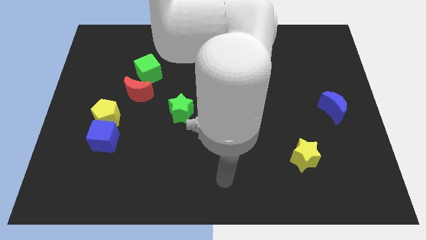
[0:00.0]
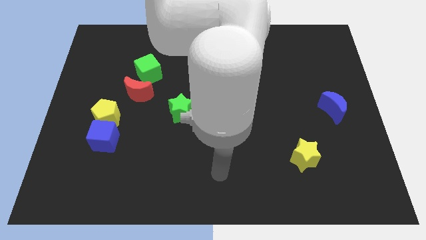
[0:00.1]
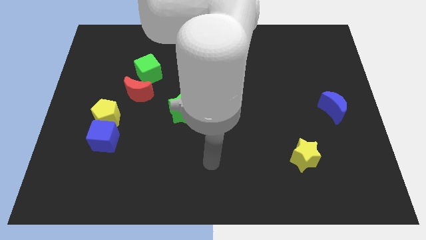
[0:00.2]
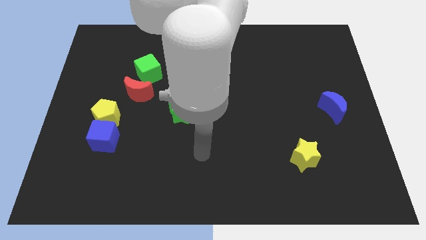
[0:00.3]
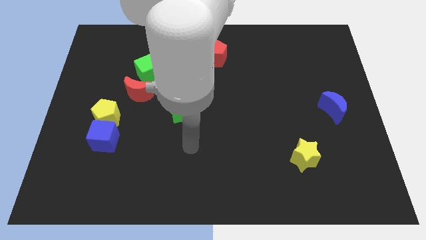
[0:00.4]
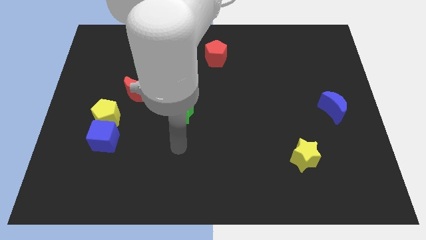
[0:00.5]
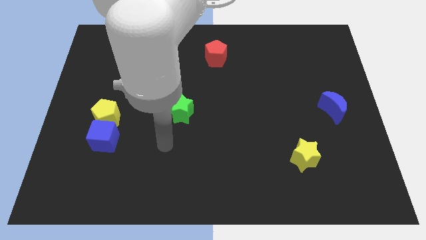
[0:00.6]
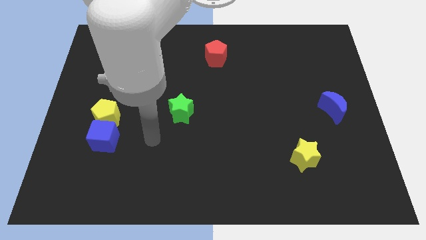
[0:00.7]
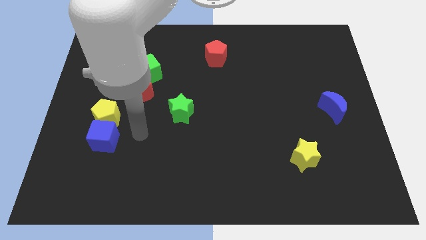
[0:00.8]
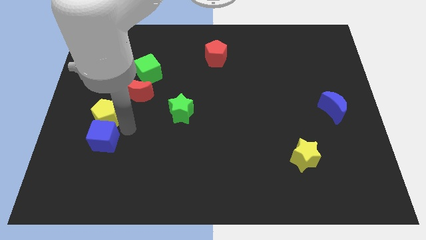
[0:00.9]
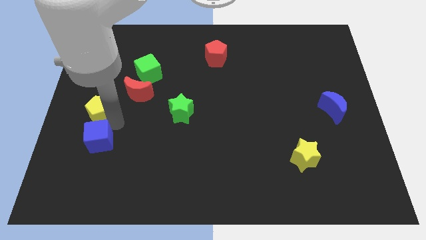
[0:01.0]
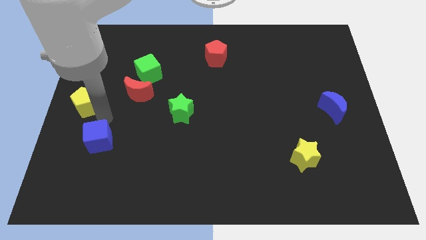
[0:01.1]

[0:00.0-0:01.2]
move the blue cube away from the yellow pentagon

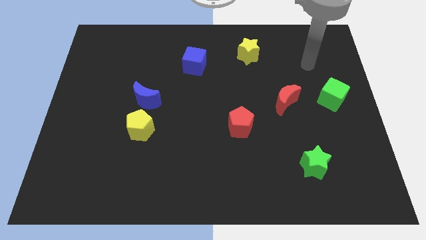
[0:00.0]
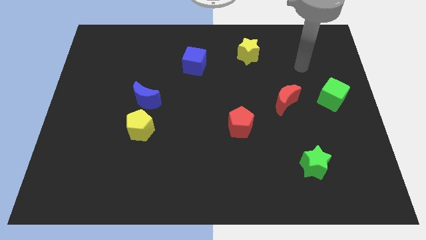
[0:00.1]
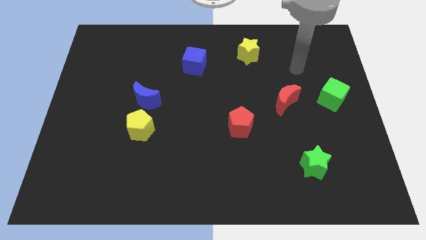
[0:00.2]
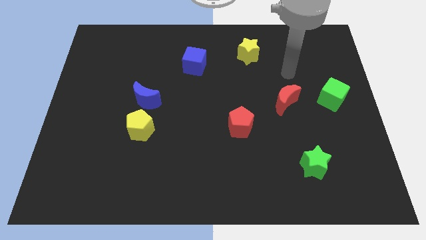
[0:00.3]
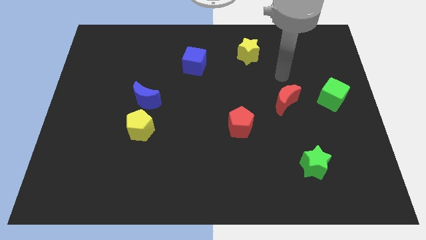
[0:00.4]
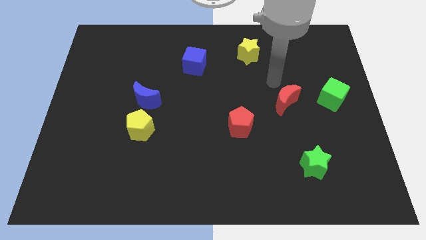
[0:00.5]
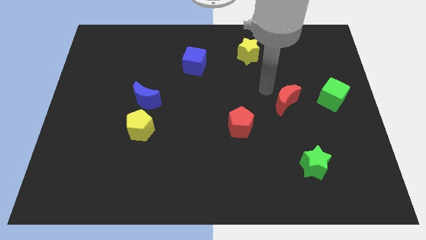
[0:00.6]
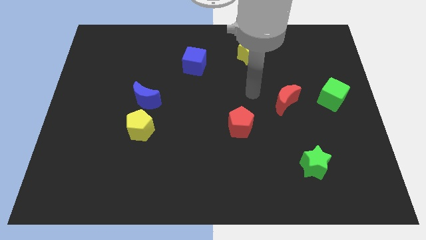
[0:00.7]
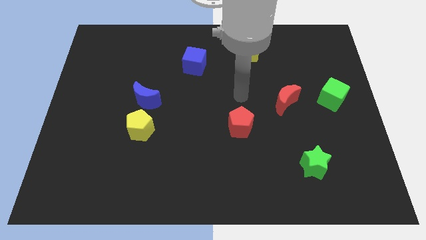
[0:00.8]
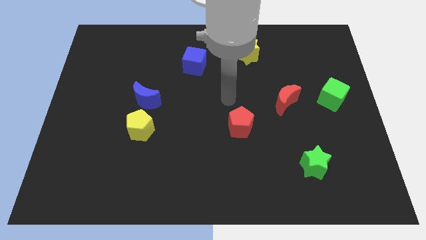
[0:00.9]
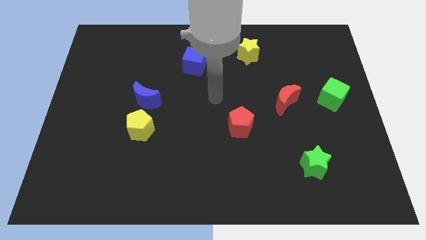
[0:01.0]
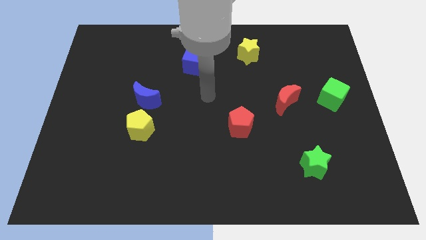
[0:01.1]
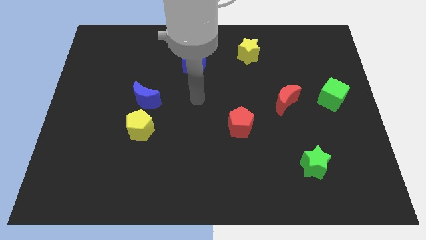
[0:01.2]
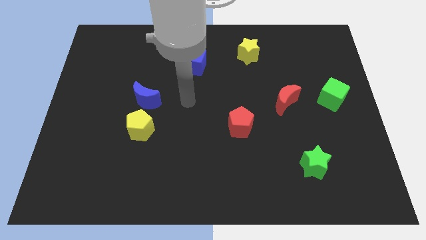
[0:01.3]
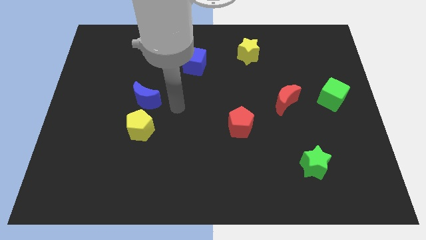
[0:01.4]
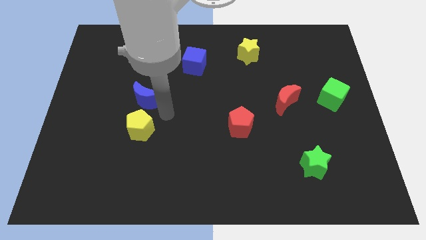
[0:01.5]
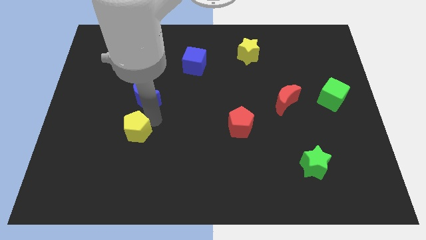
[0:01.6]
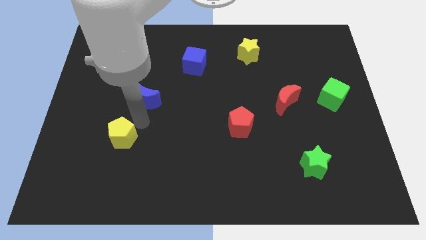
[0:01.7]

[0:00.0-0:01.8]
pull the blue moon apart from the yellow pentagon

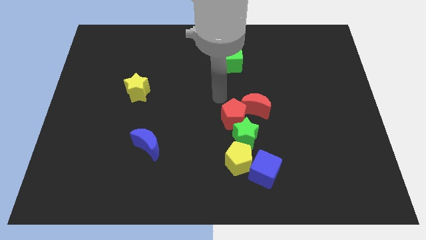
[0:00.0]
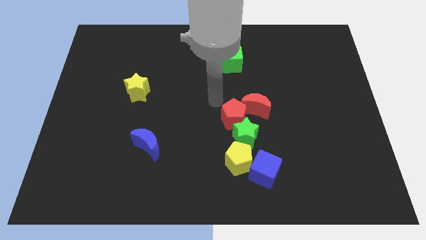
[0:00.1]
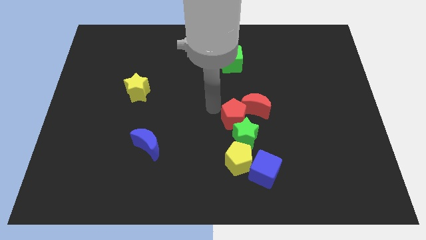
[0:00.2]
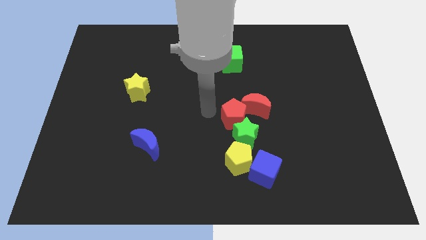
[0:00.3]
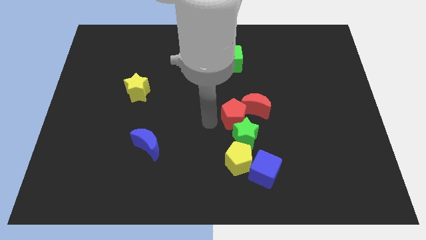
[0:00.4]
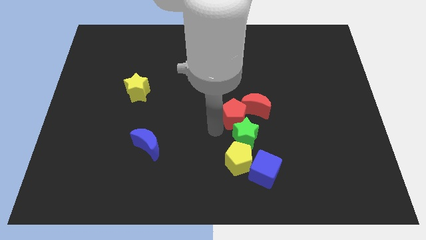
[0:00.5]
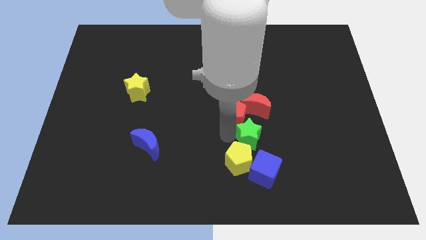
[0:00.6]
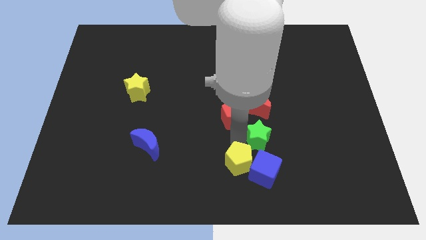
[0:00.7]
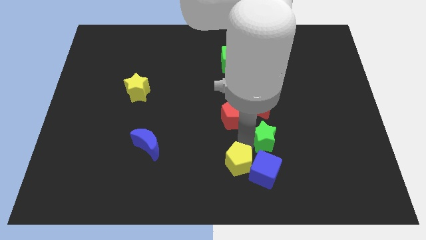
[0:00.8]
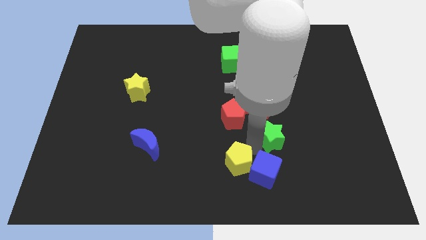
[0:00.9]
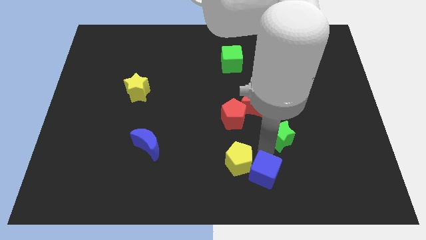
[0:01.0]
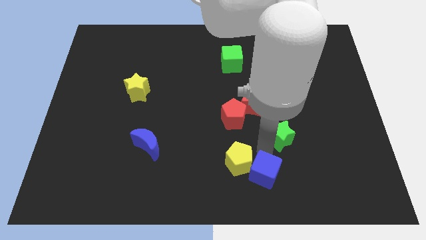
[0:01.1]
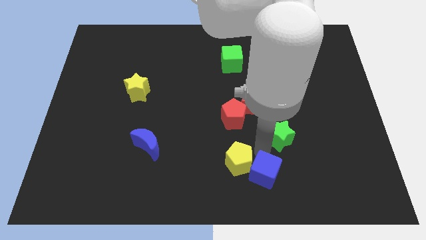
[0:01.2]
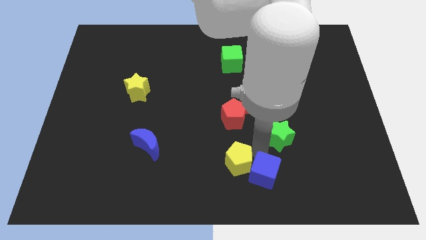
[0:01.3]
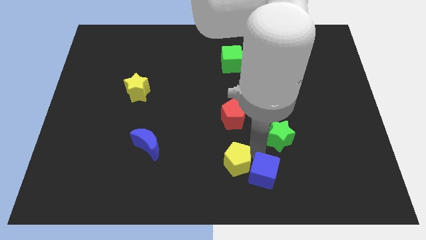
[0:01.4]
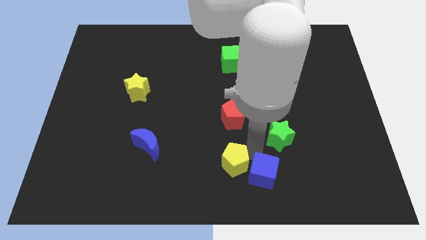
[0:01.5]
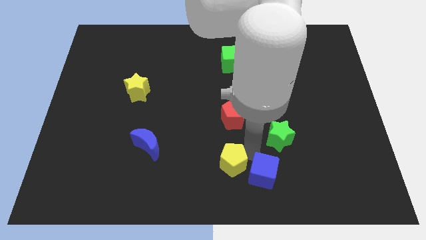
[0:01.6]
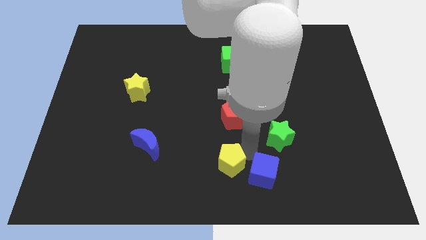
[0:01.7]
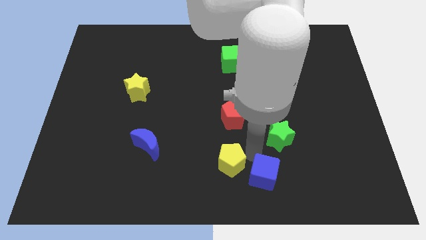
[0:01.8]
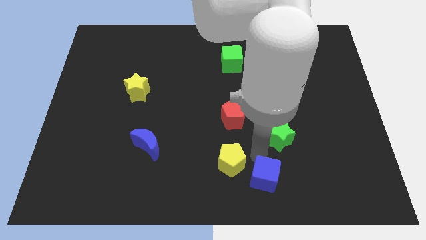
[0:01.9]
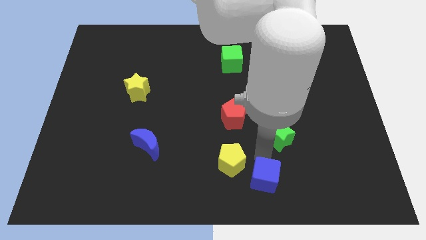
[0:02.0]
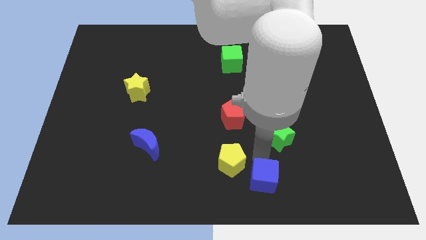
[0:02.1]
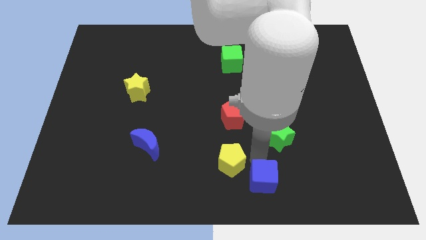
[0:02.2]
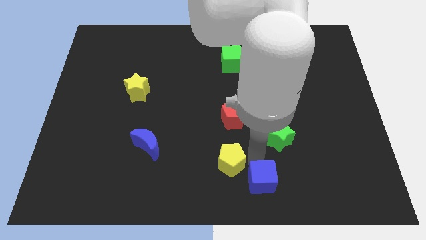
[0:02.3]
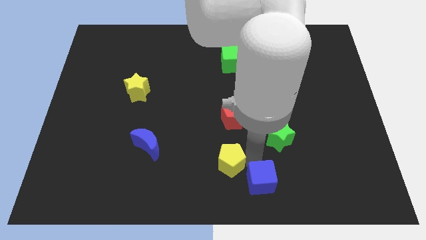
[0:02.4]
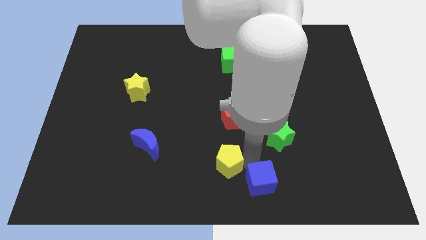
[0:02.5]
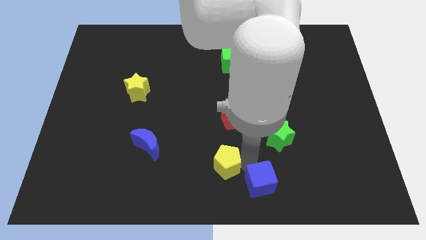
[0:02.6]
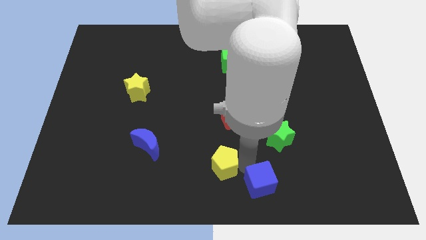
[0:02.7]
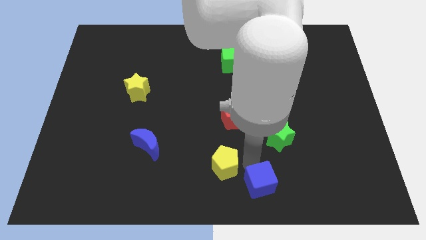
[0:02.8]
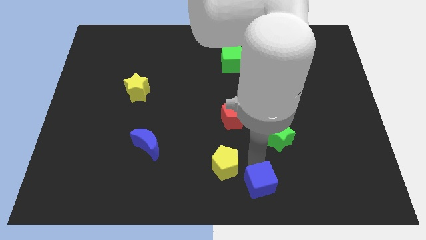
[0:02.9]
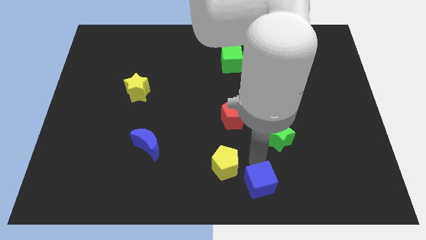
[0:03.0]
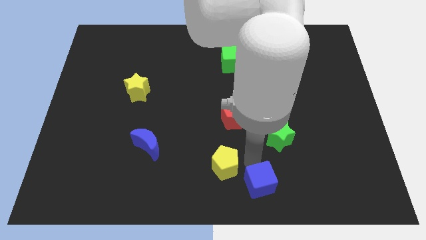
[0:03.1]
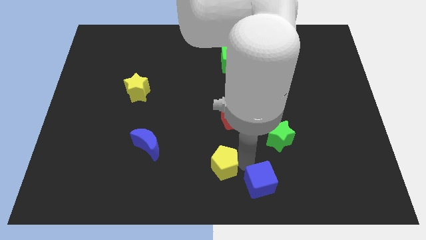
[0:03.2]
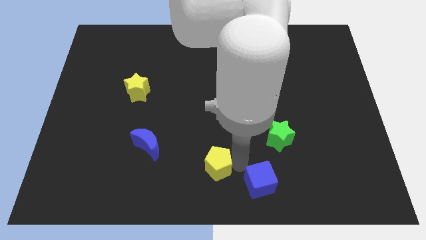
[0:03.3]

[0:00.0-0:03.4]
move the yellow pentagon away from the blue cube and green star

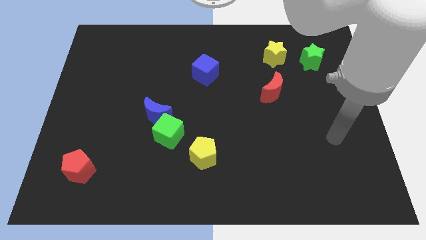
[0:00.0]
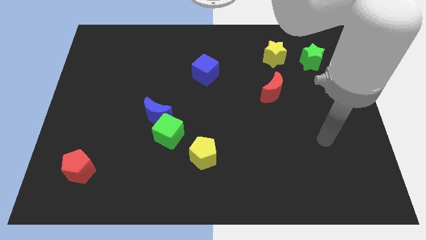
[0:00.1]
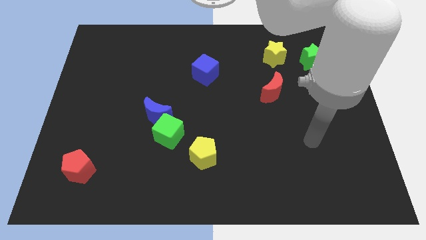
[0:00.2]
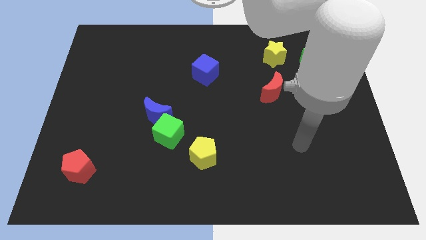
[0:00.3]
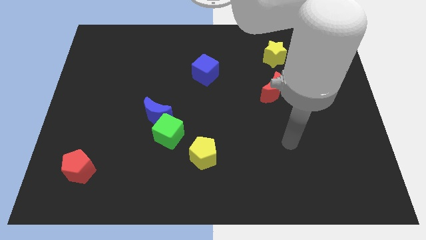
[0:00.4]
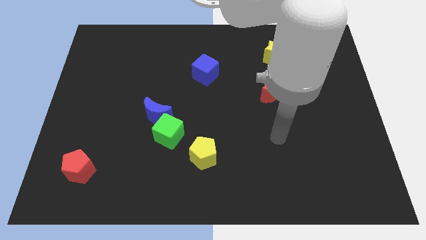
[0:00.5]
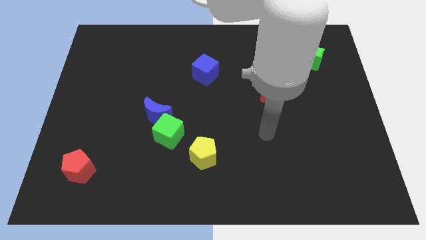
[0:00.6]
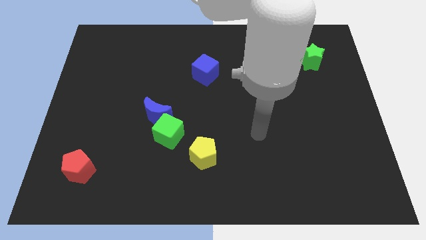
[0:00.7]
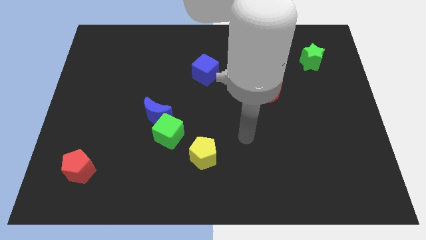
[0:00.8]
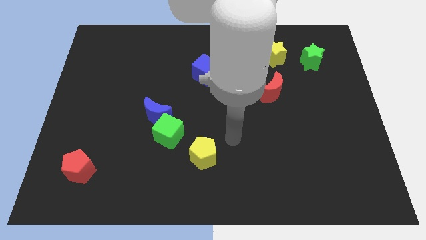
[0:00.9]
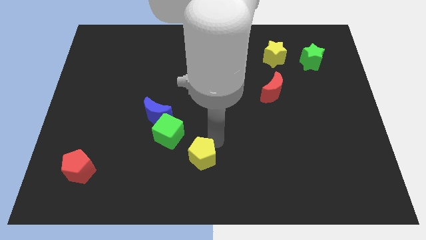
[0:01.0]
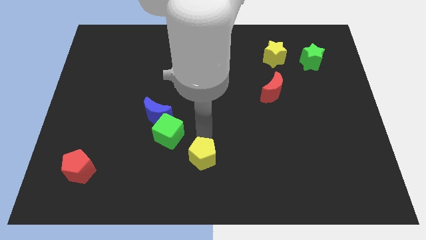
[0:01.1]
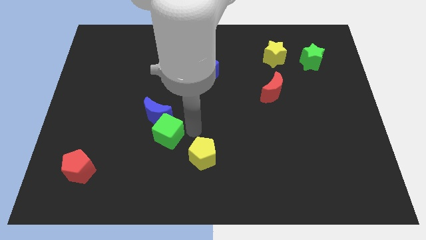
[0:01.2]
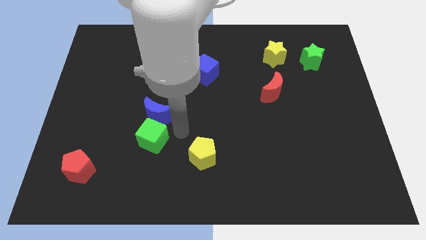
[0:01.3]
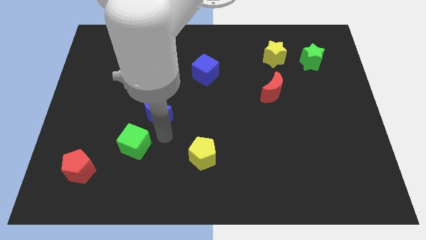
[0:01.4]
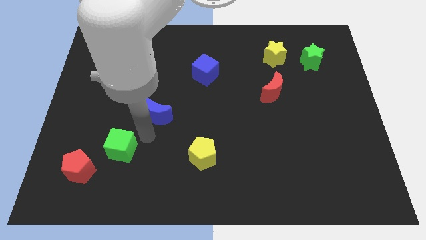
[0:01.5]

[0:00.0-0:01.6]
move the blue moon away from the green cube

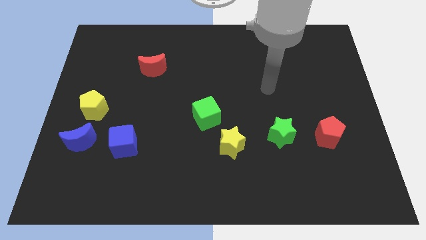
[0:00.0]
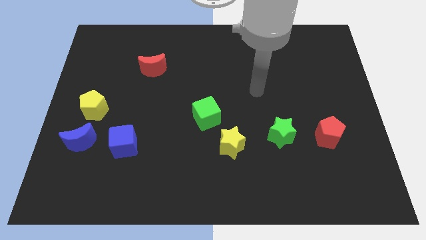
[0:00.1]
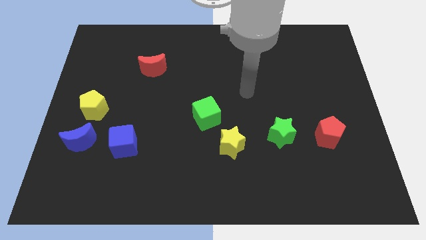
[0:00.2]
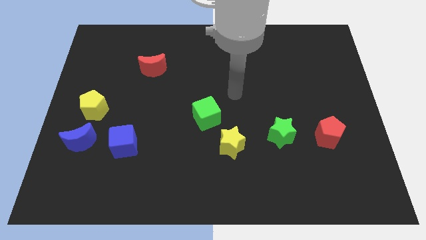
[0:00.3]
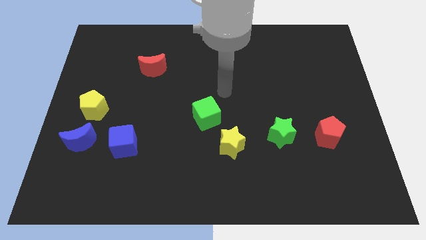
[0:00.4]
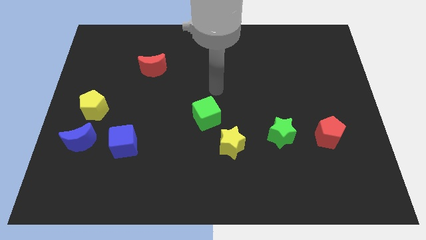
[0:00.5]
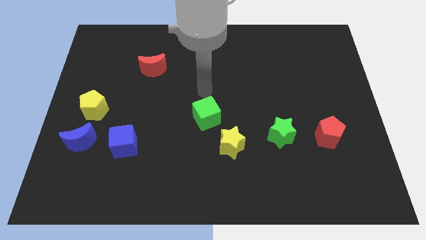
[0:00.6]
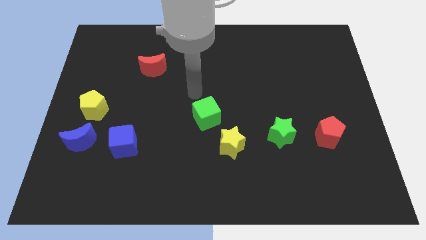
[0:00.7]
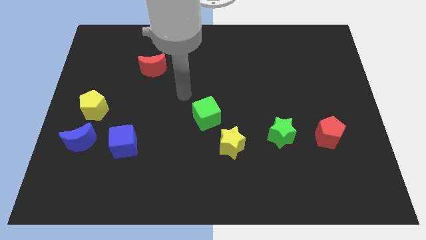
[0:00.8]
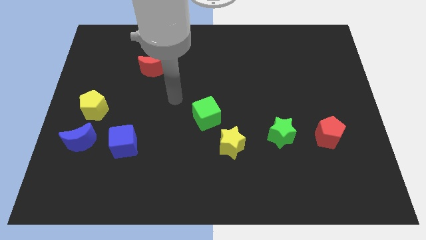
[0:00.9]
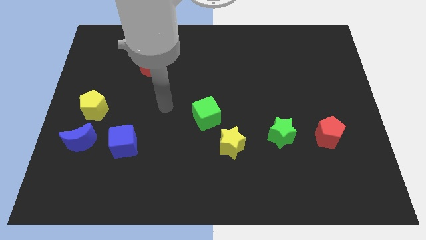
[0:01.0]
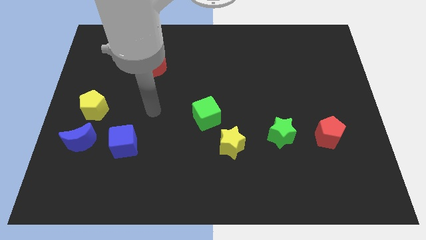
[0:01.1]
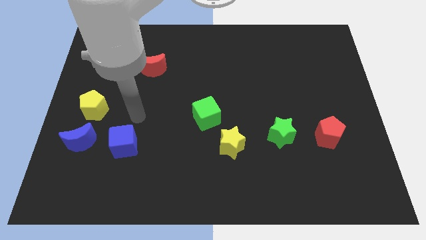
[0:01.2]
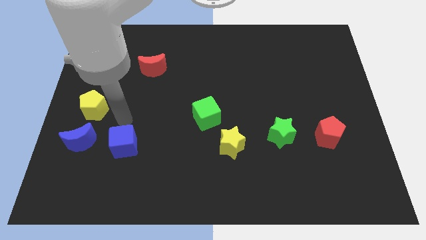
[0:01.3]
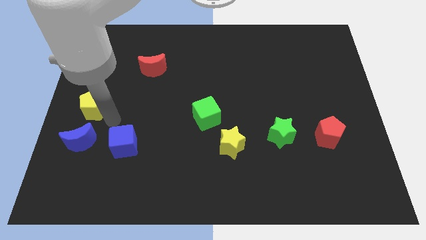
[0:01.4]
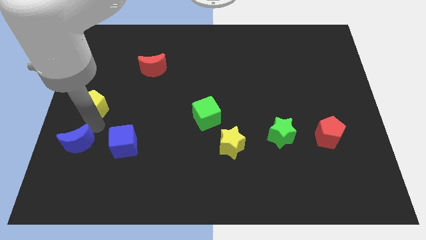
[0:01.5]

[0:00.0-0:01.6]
pull the yellow pentagon apart from the blue moon
